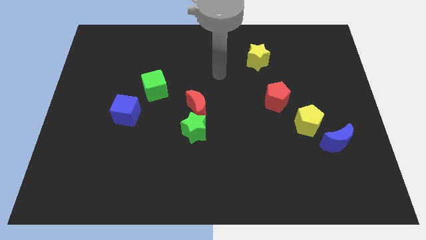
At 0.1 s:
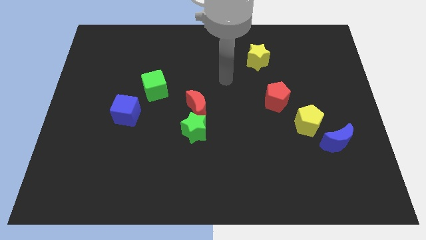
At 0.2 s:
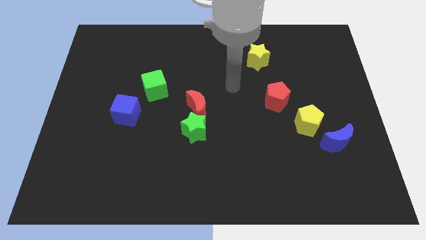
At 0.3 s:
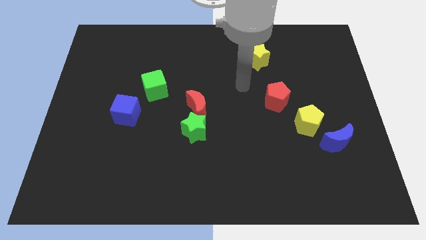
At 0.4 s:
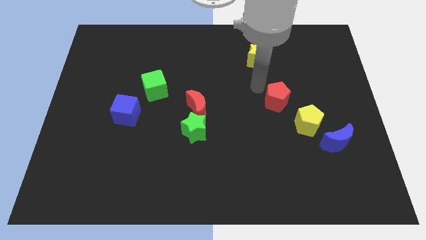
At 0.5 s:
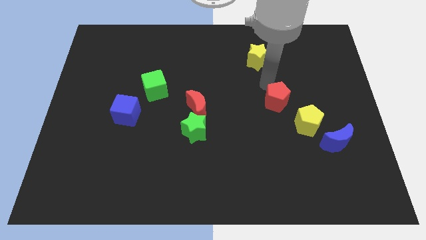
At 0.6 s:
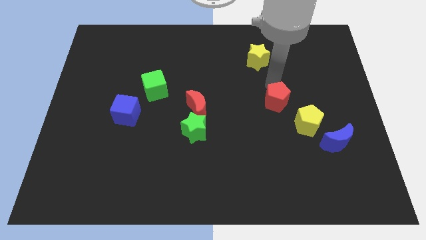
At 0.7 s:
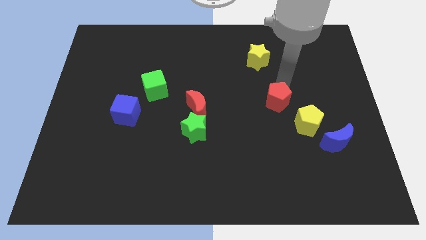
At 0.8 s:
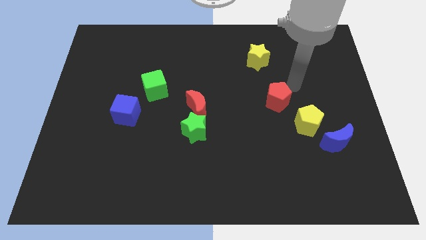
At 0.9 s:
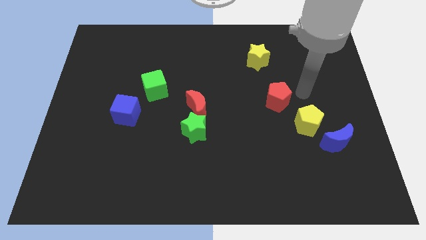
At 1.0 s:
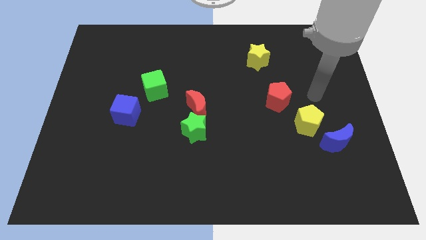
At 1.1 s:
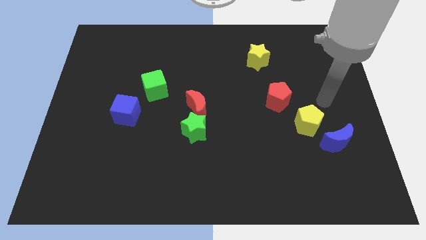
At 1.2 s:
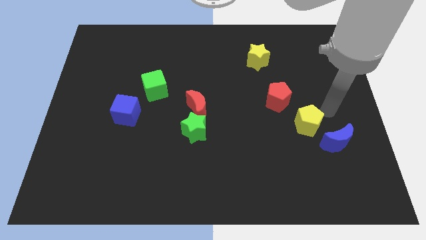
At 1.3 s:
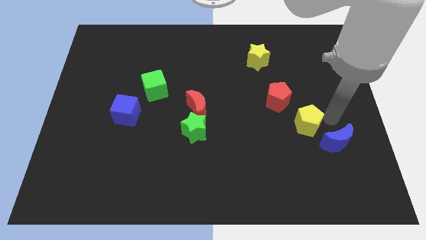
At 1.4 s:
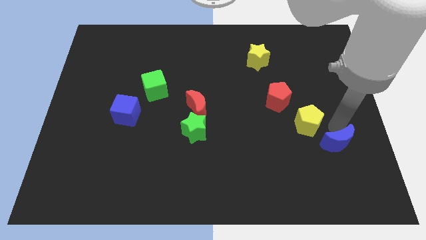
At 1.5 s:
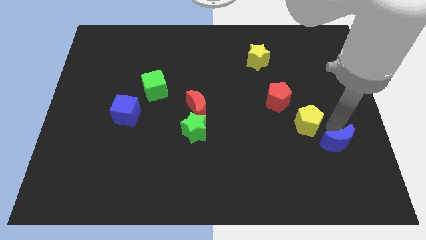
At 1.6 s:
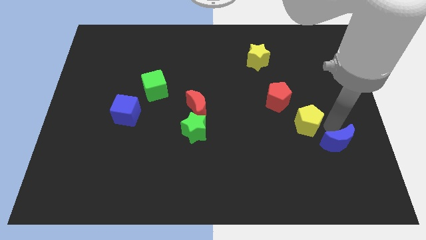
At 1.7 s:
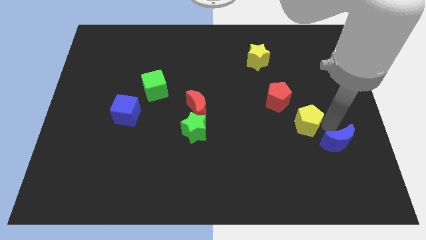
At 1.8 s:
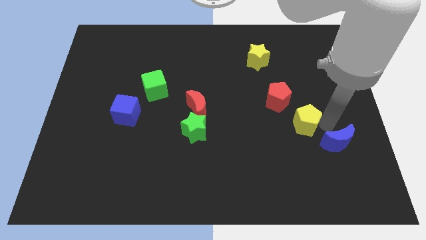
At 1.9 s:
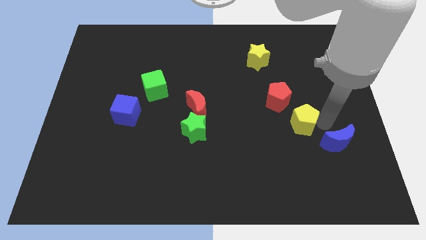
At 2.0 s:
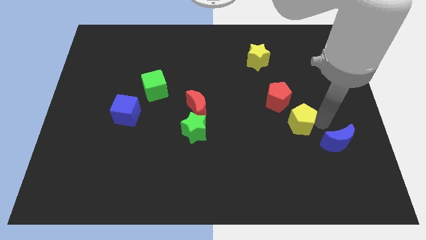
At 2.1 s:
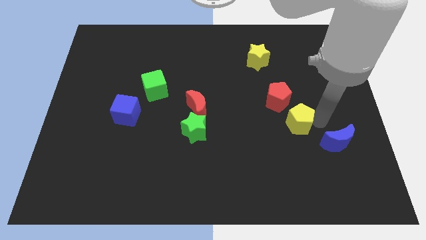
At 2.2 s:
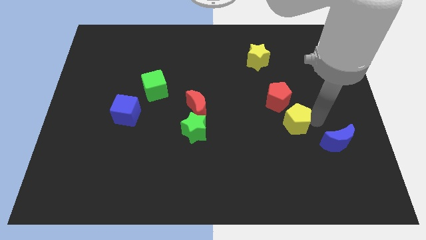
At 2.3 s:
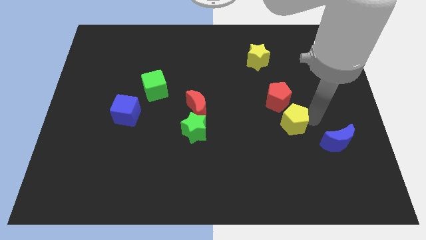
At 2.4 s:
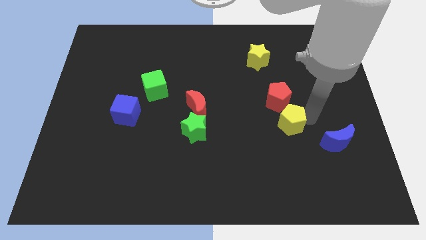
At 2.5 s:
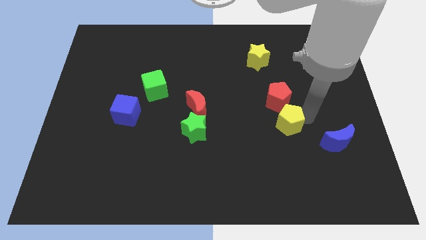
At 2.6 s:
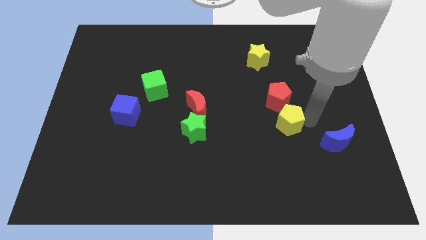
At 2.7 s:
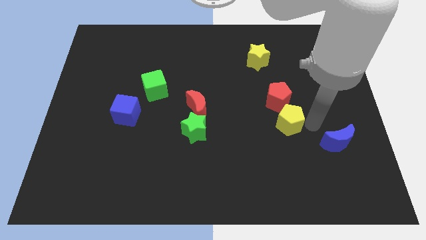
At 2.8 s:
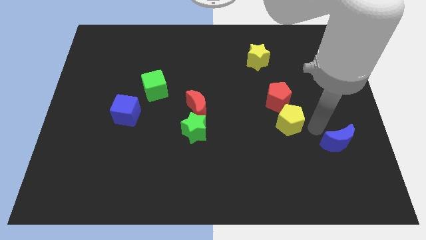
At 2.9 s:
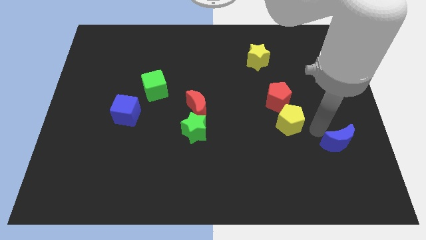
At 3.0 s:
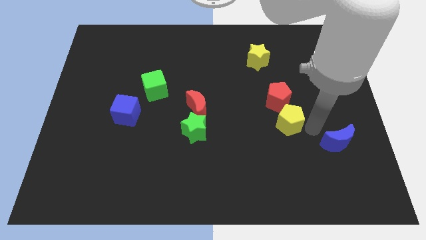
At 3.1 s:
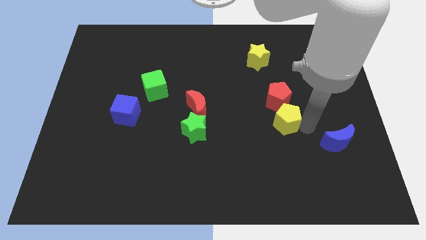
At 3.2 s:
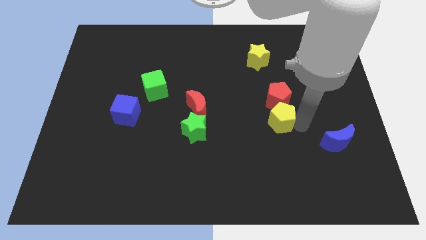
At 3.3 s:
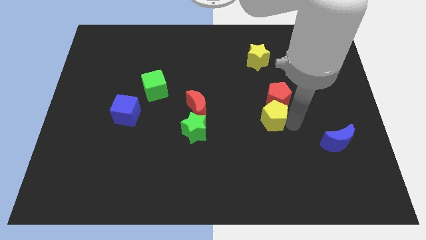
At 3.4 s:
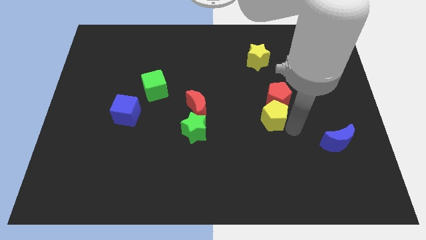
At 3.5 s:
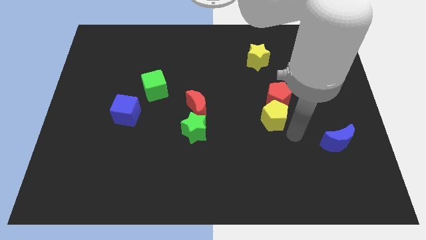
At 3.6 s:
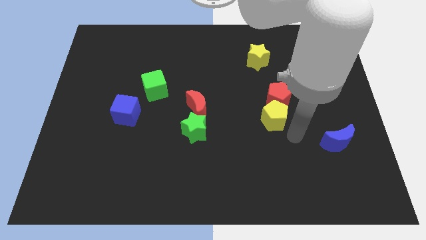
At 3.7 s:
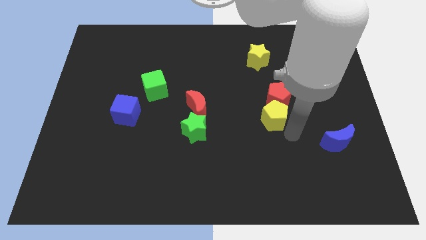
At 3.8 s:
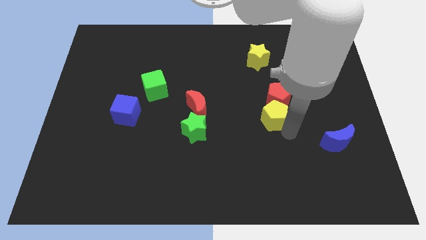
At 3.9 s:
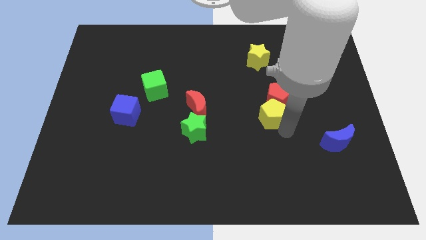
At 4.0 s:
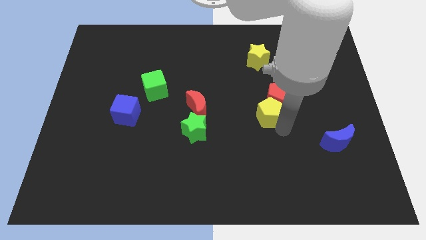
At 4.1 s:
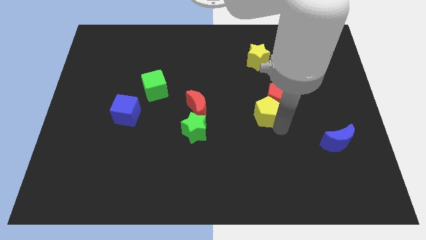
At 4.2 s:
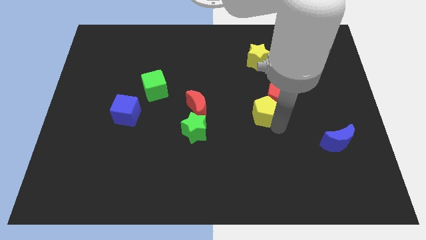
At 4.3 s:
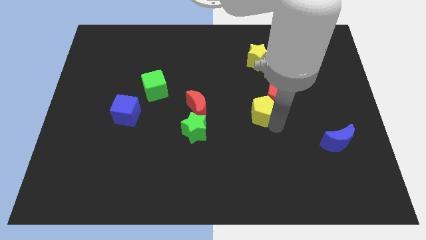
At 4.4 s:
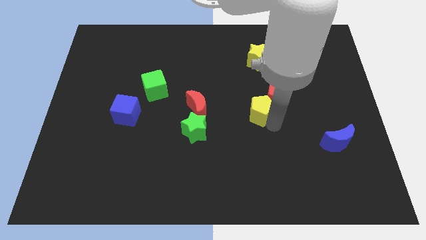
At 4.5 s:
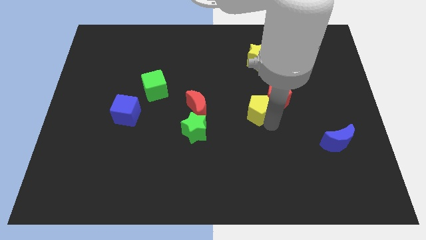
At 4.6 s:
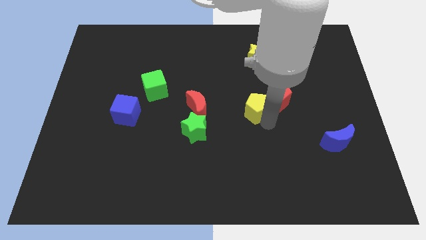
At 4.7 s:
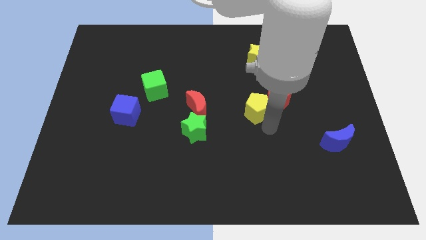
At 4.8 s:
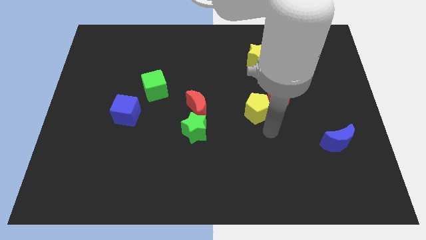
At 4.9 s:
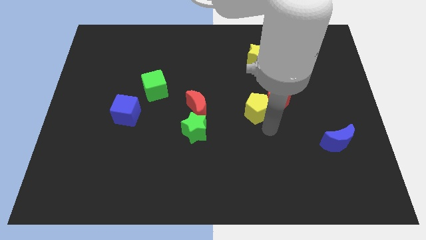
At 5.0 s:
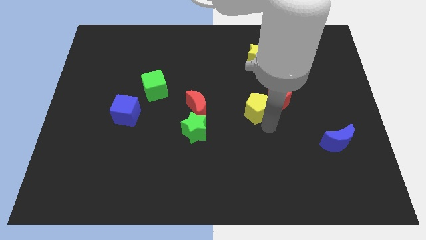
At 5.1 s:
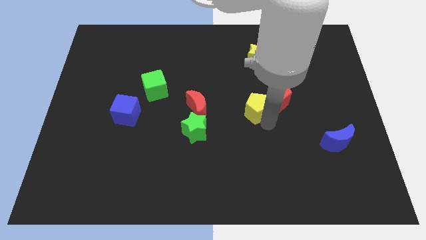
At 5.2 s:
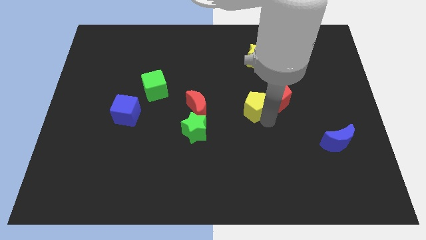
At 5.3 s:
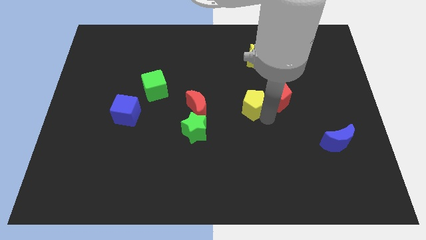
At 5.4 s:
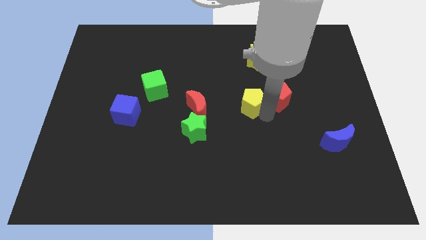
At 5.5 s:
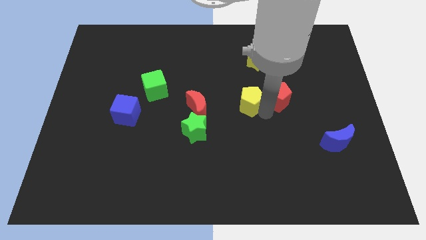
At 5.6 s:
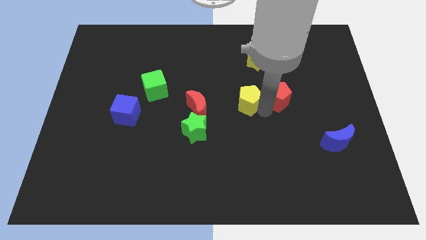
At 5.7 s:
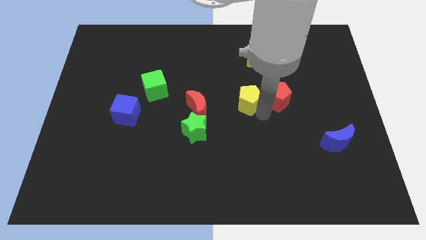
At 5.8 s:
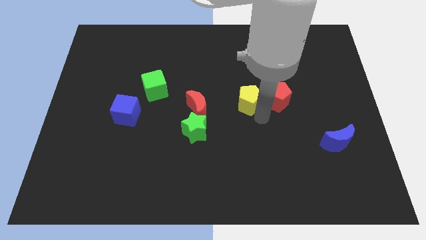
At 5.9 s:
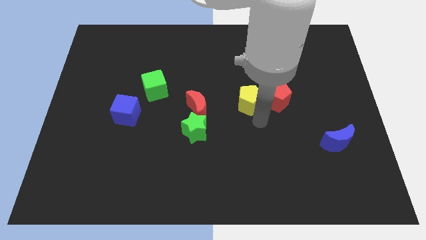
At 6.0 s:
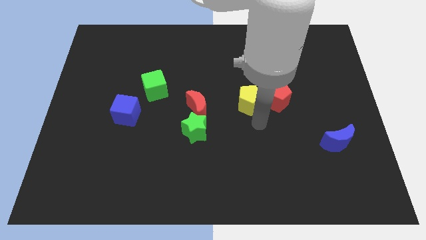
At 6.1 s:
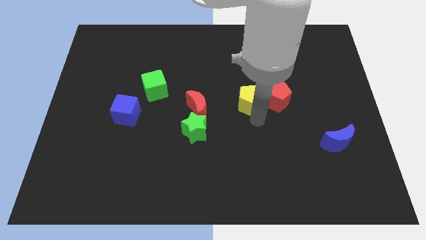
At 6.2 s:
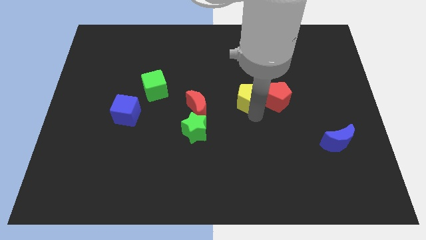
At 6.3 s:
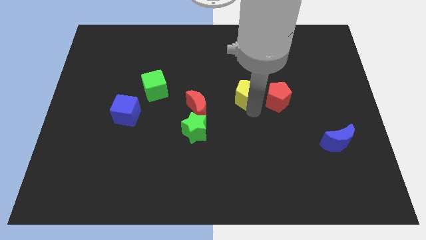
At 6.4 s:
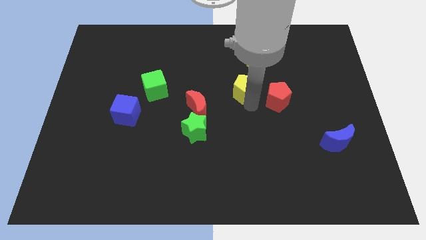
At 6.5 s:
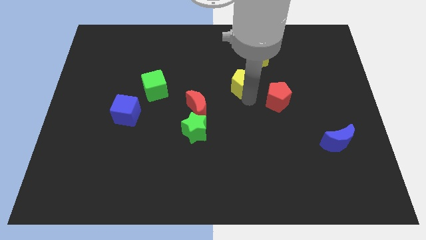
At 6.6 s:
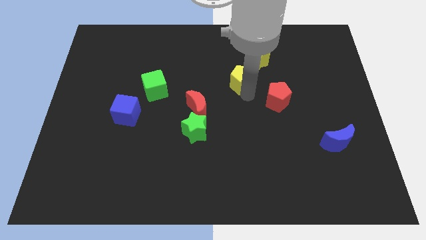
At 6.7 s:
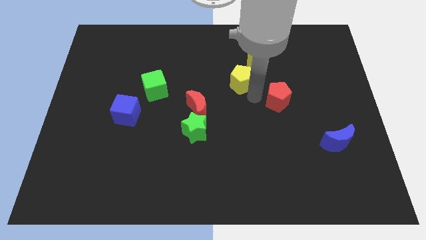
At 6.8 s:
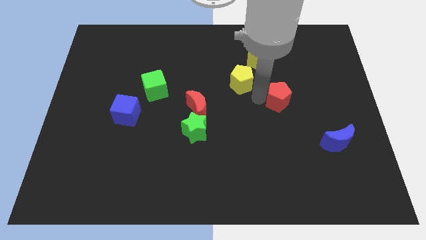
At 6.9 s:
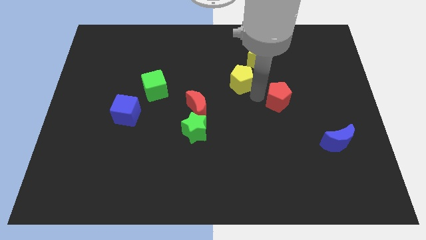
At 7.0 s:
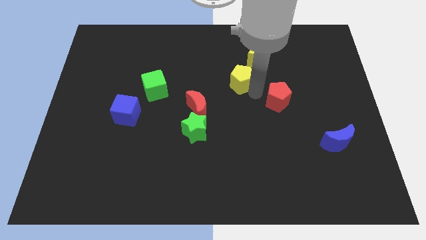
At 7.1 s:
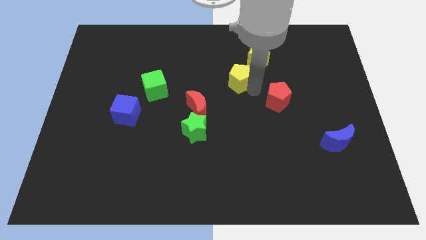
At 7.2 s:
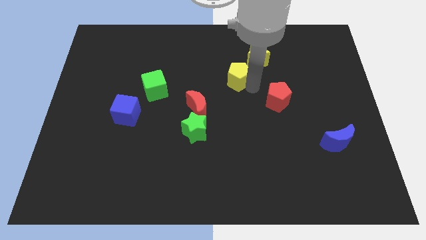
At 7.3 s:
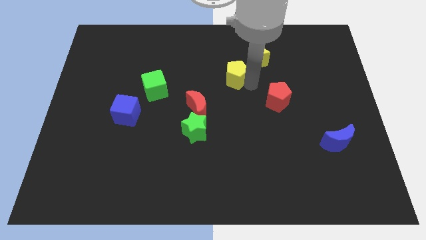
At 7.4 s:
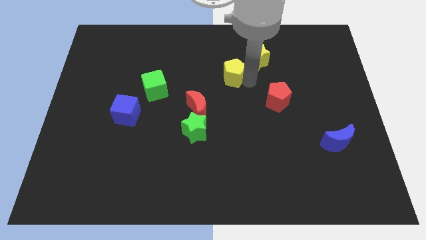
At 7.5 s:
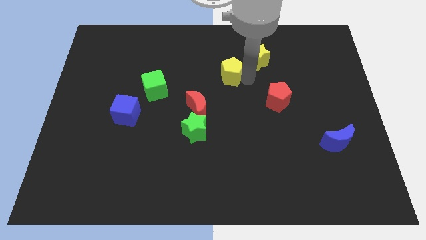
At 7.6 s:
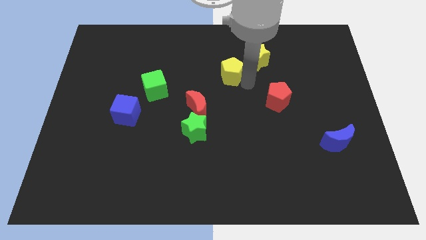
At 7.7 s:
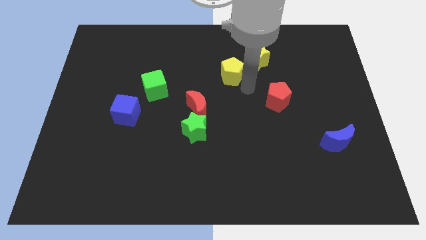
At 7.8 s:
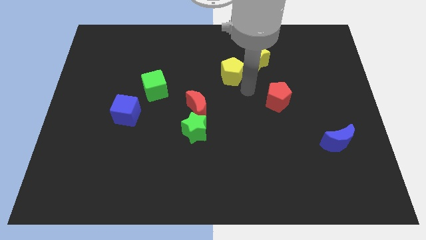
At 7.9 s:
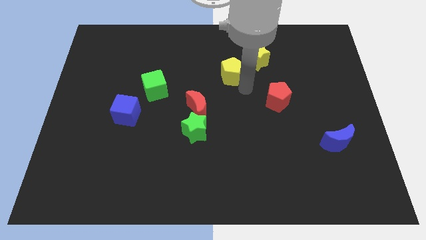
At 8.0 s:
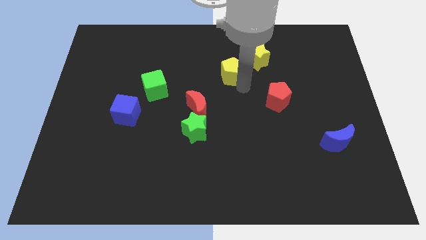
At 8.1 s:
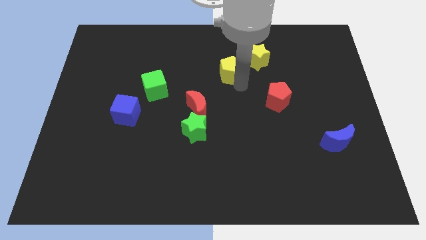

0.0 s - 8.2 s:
push the yellow pentagon left of the yellow star
